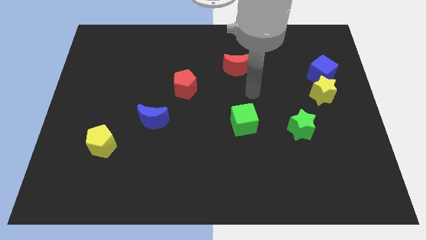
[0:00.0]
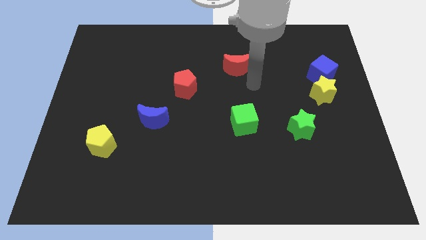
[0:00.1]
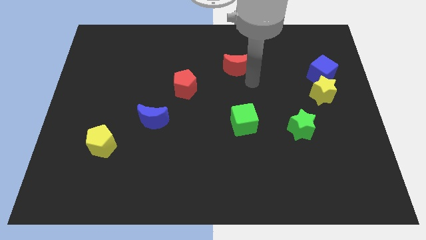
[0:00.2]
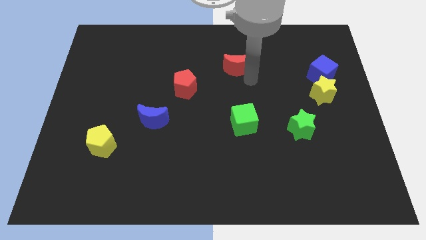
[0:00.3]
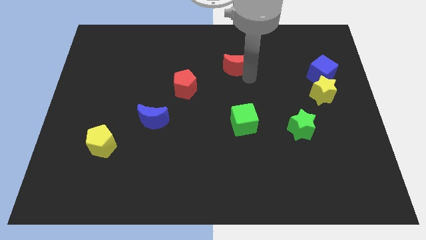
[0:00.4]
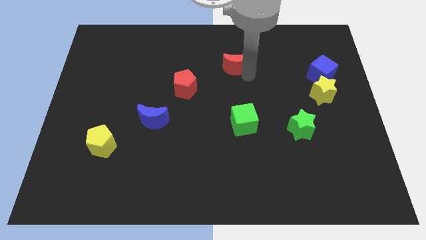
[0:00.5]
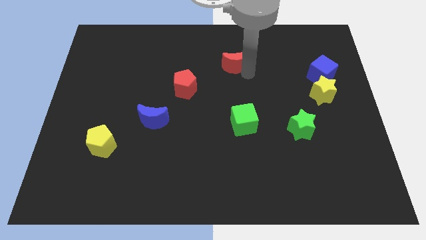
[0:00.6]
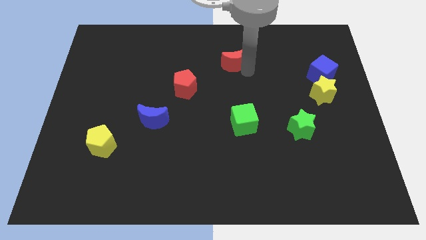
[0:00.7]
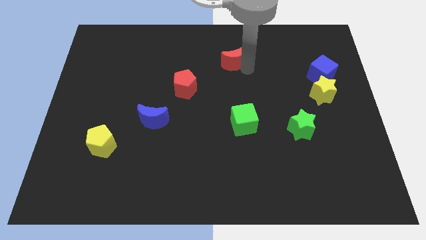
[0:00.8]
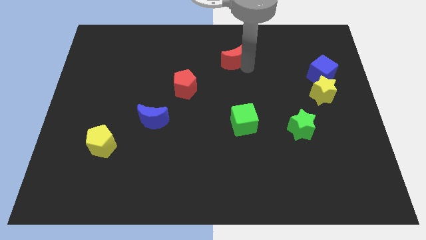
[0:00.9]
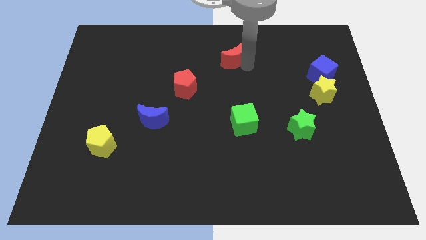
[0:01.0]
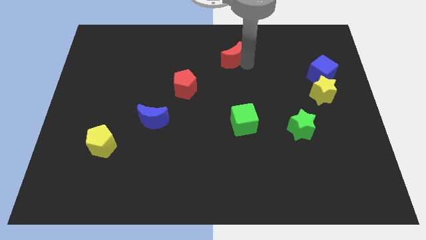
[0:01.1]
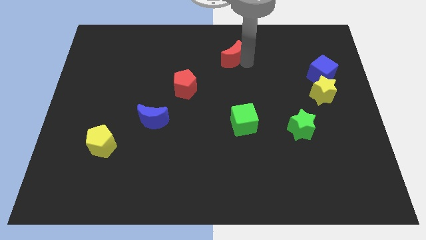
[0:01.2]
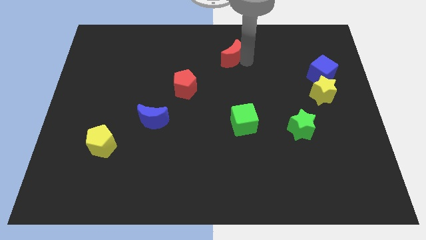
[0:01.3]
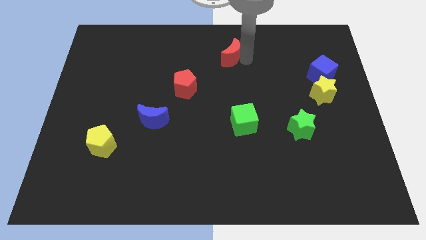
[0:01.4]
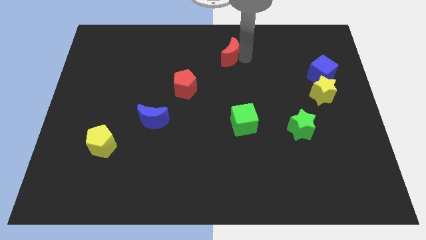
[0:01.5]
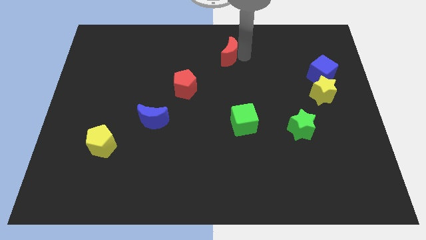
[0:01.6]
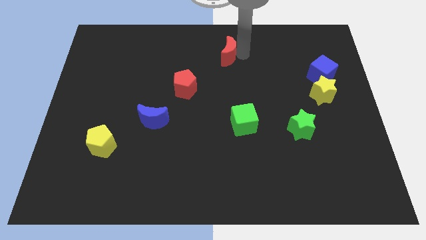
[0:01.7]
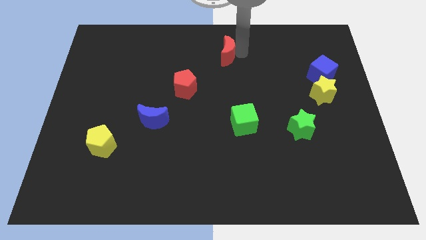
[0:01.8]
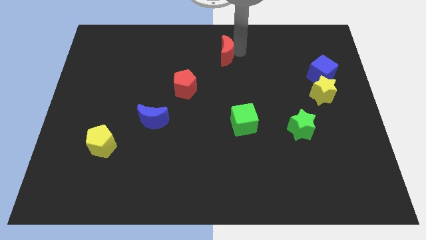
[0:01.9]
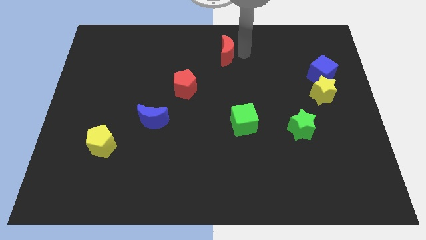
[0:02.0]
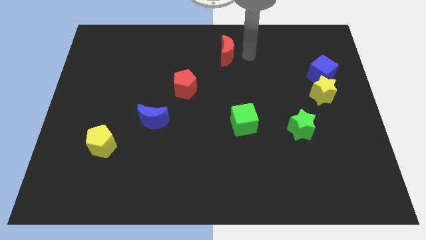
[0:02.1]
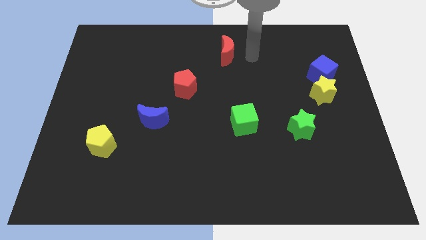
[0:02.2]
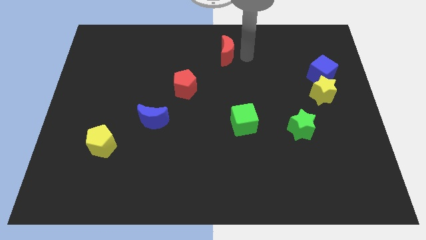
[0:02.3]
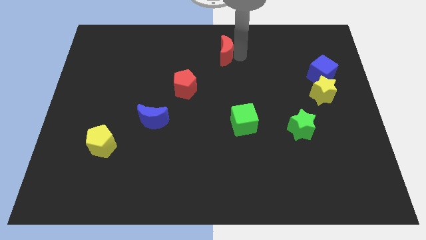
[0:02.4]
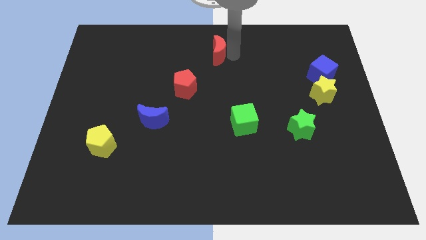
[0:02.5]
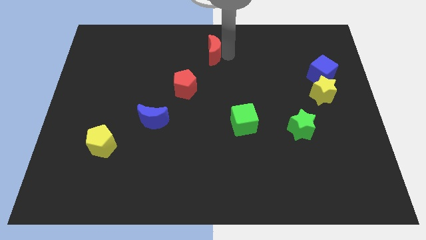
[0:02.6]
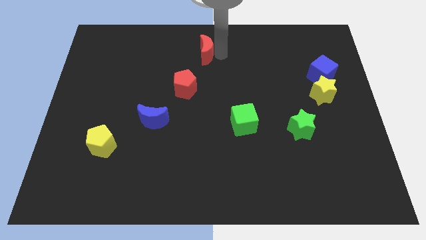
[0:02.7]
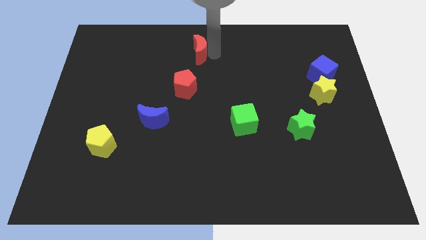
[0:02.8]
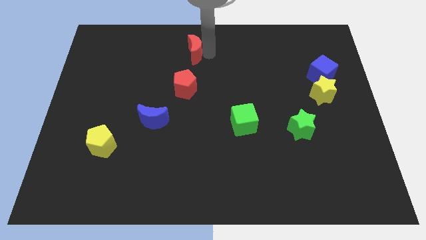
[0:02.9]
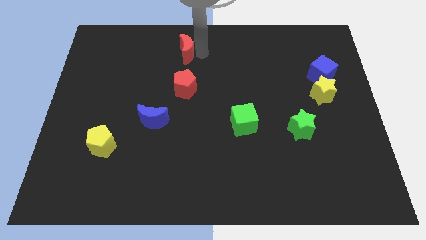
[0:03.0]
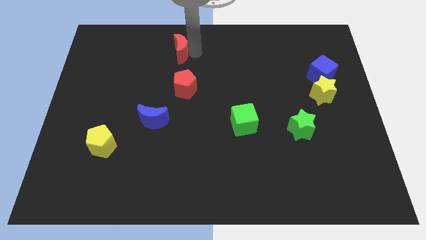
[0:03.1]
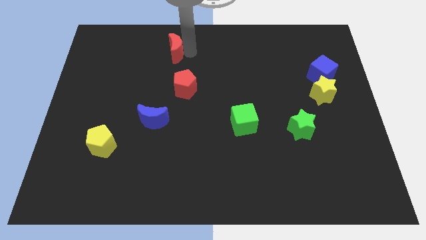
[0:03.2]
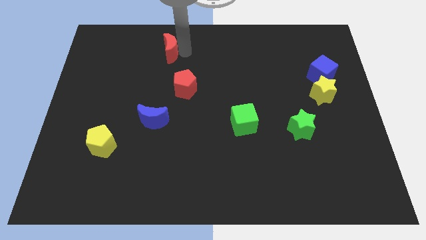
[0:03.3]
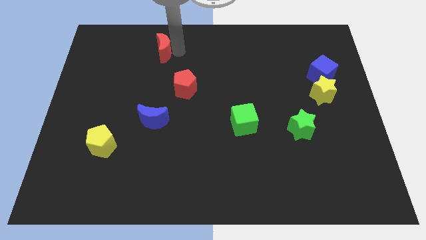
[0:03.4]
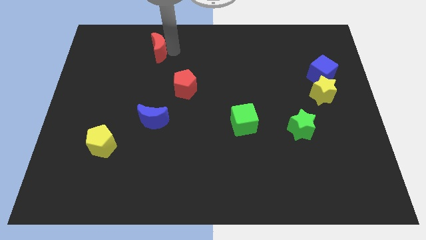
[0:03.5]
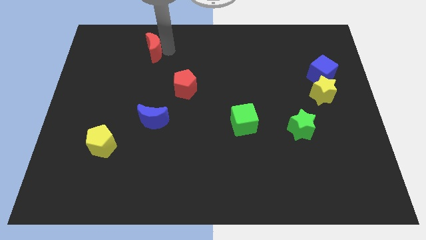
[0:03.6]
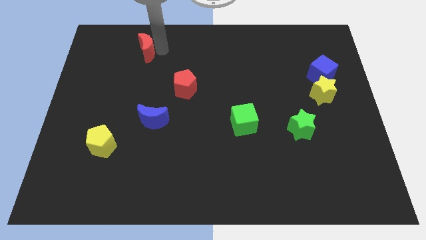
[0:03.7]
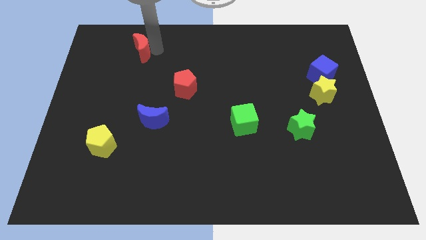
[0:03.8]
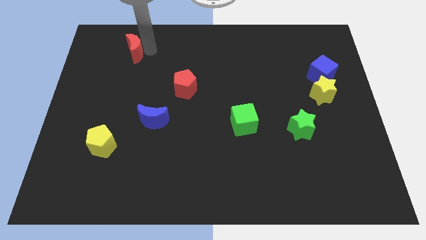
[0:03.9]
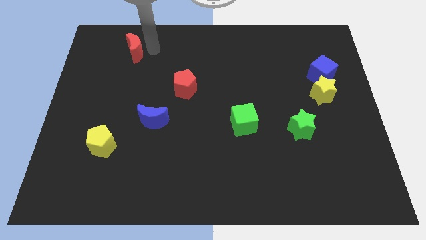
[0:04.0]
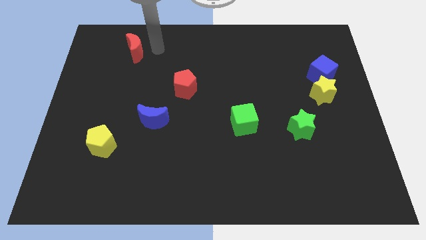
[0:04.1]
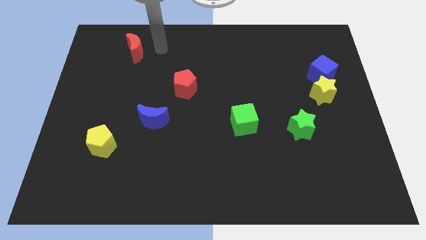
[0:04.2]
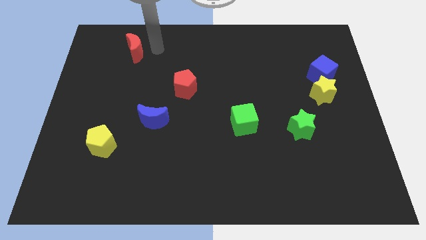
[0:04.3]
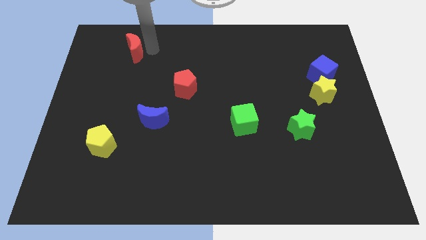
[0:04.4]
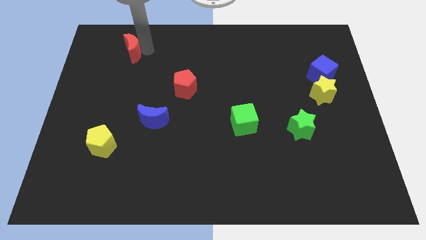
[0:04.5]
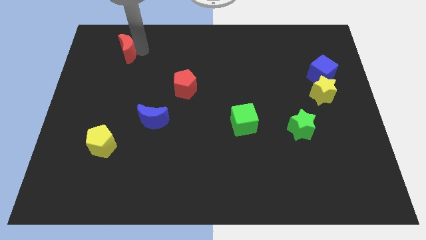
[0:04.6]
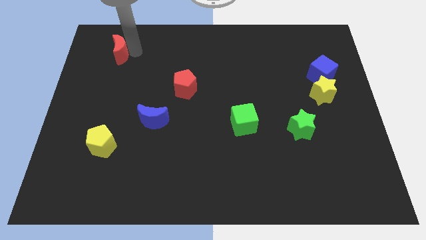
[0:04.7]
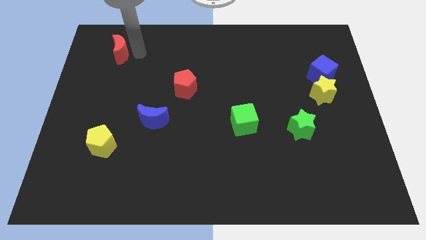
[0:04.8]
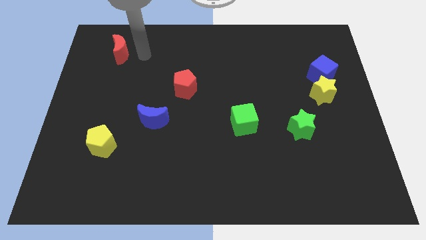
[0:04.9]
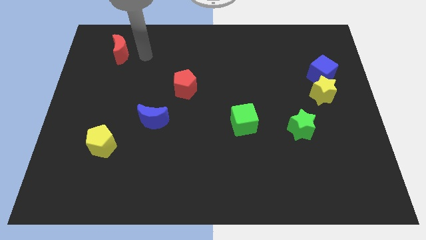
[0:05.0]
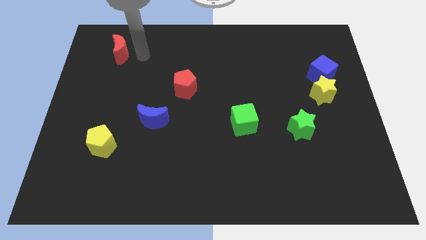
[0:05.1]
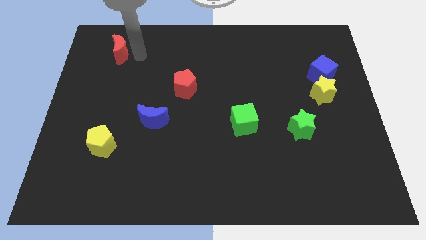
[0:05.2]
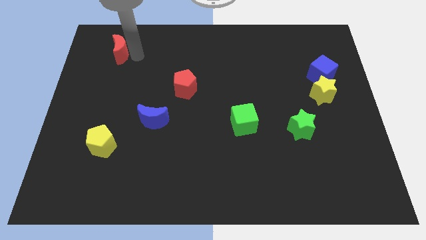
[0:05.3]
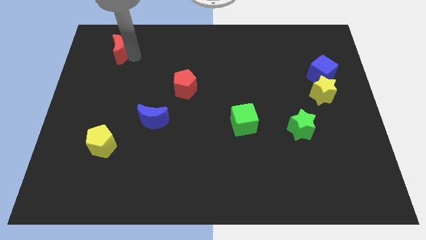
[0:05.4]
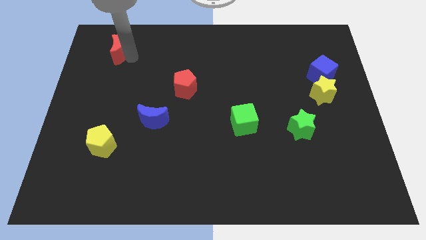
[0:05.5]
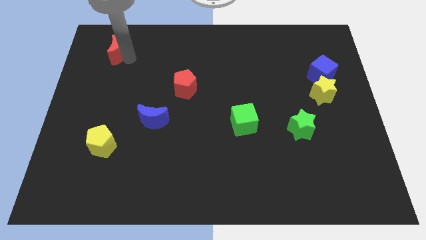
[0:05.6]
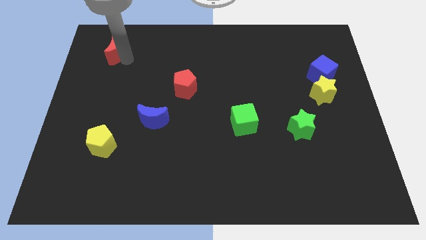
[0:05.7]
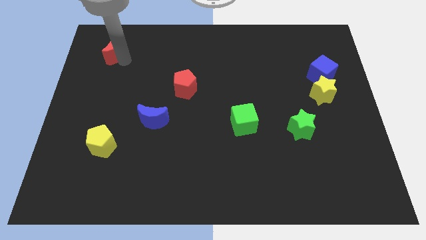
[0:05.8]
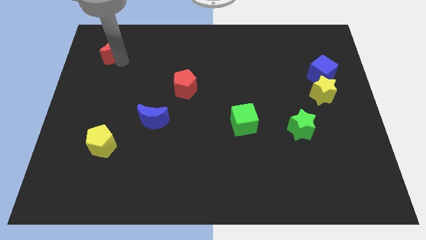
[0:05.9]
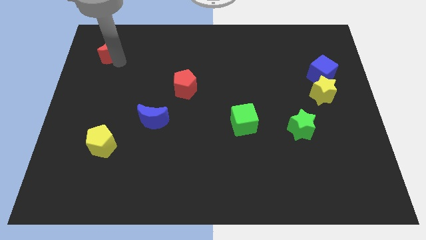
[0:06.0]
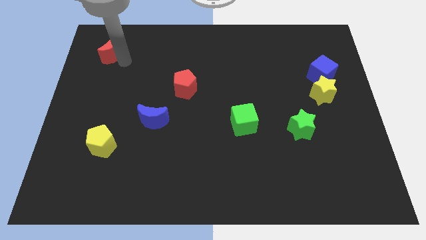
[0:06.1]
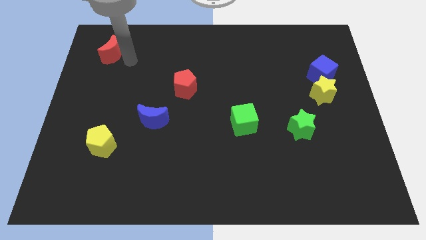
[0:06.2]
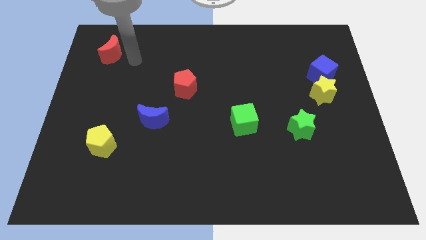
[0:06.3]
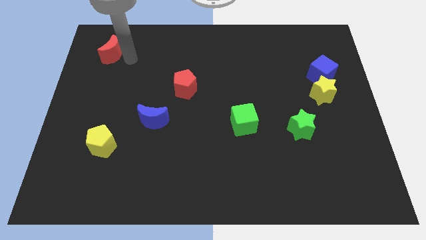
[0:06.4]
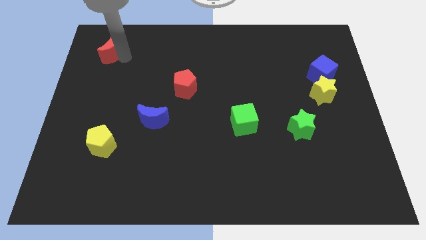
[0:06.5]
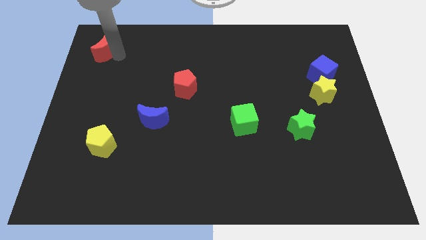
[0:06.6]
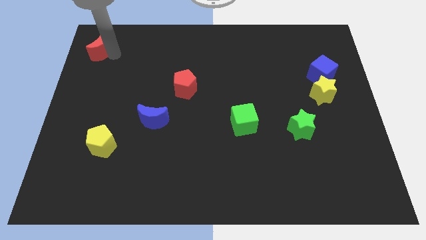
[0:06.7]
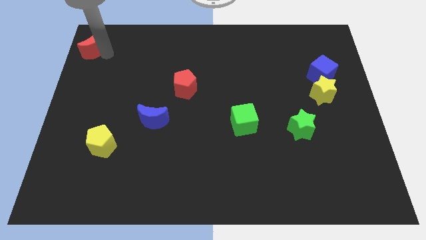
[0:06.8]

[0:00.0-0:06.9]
put the red moon to the top left corner
